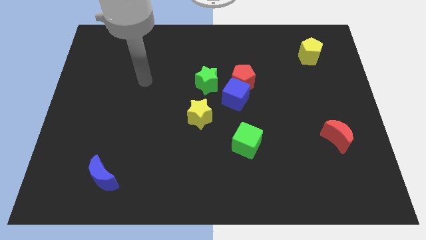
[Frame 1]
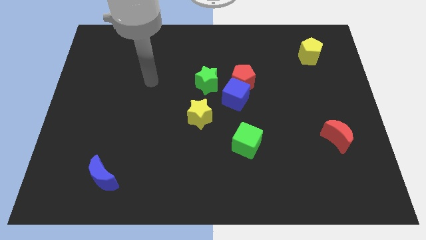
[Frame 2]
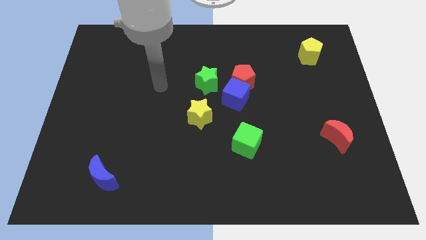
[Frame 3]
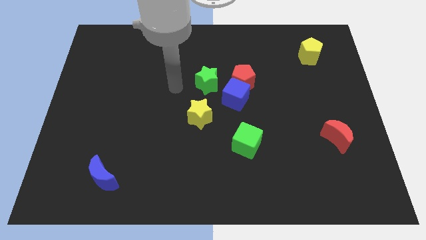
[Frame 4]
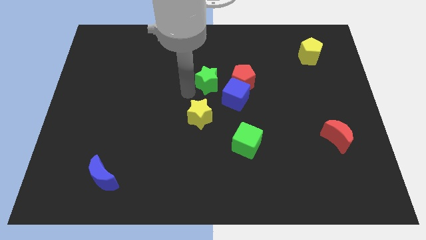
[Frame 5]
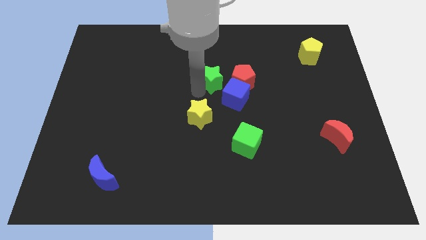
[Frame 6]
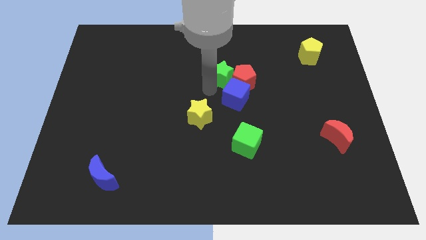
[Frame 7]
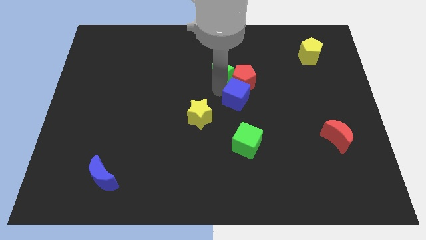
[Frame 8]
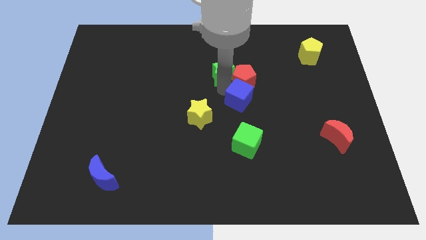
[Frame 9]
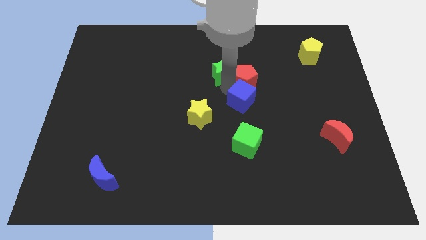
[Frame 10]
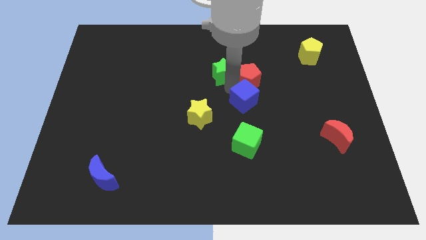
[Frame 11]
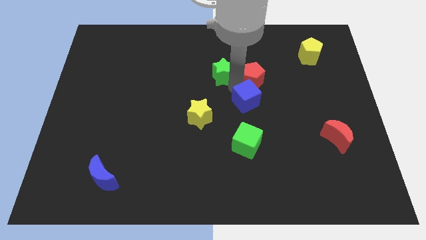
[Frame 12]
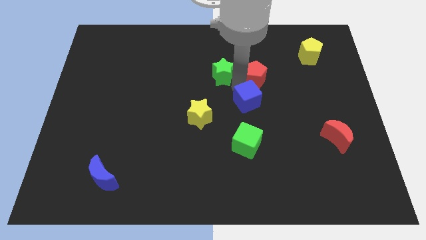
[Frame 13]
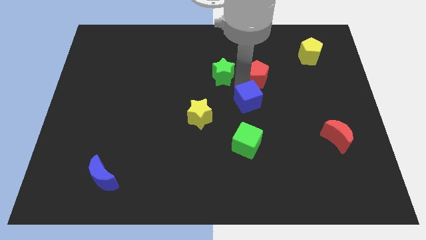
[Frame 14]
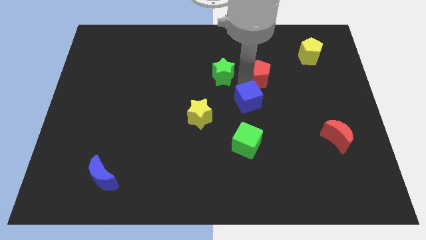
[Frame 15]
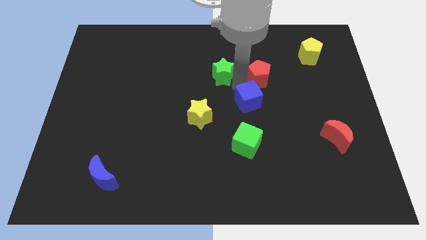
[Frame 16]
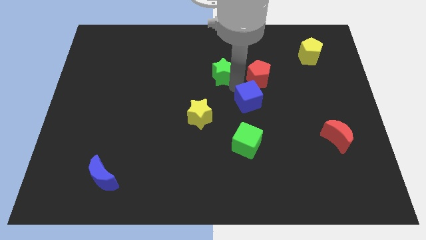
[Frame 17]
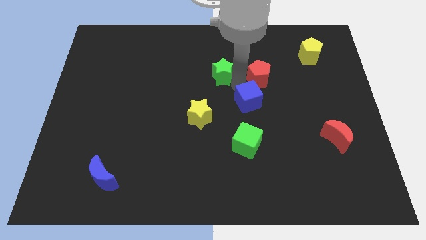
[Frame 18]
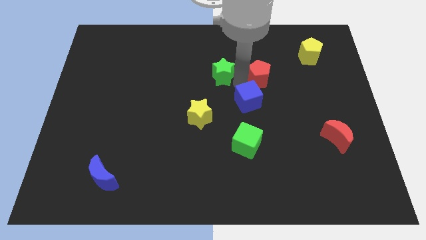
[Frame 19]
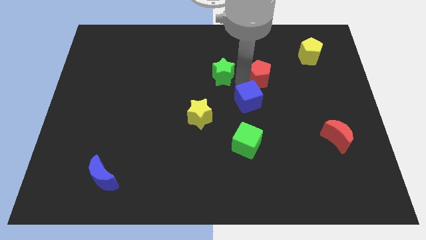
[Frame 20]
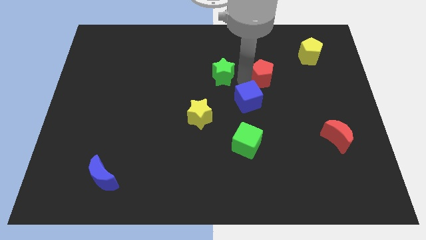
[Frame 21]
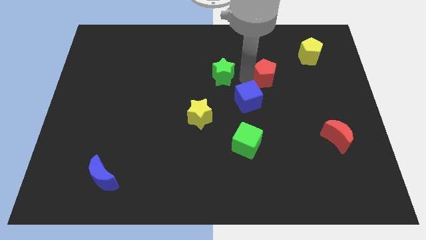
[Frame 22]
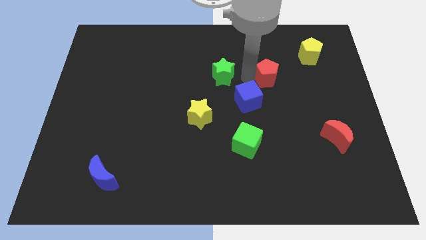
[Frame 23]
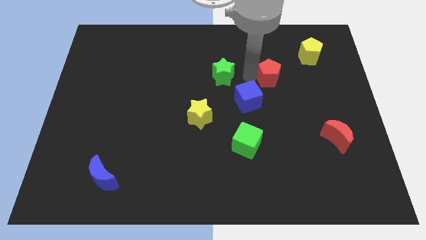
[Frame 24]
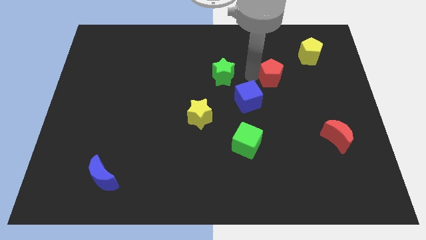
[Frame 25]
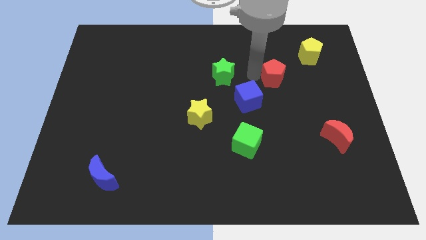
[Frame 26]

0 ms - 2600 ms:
separate the red pentagon from the blue cube and green star

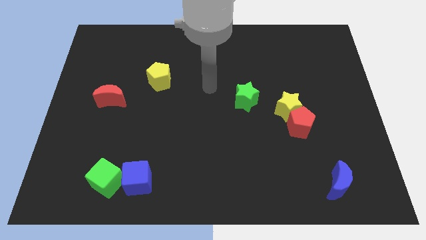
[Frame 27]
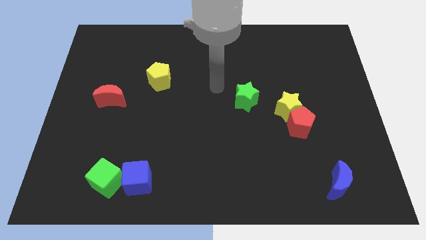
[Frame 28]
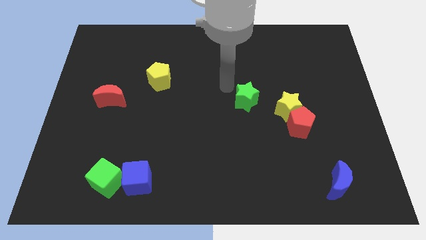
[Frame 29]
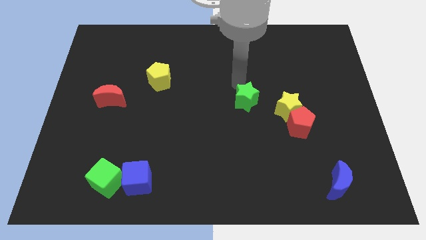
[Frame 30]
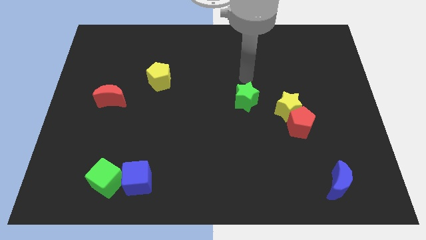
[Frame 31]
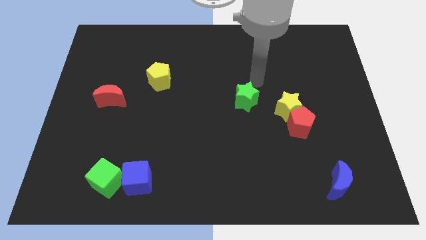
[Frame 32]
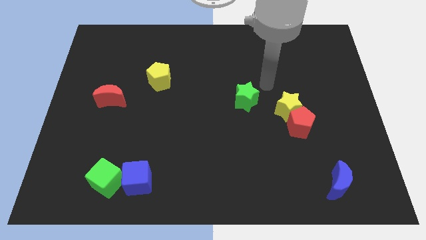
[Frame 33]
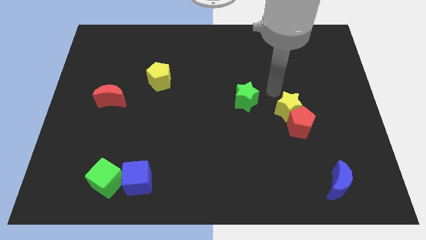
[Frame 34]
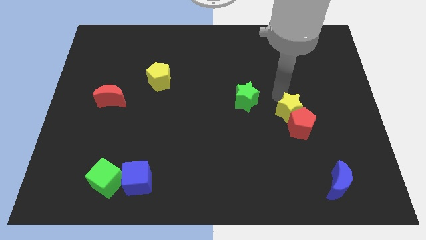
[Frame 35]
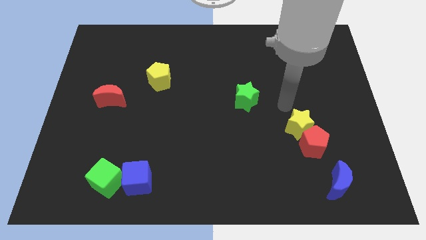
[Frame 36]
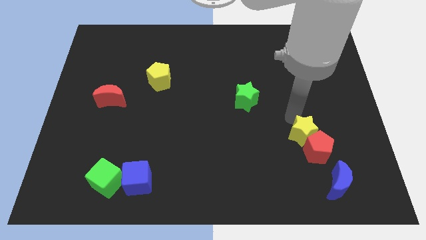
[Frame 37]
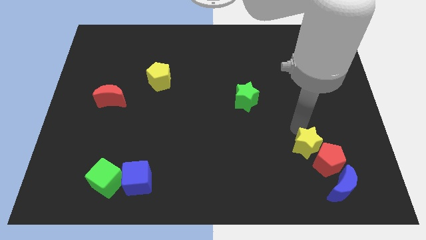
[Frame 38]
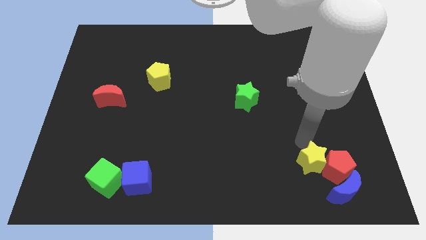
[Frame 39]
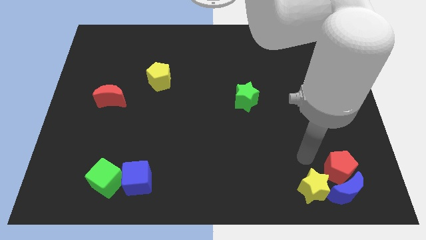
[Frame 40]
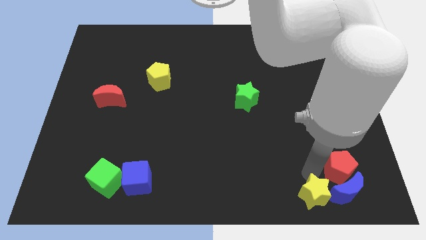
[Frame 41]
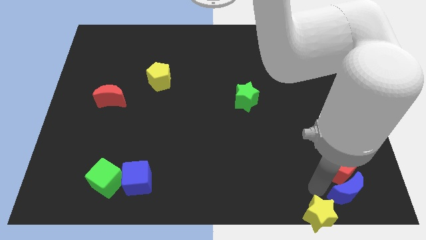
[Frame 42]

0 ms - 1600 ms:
separate the red pentagon from the yellow star

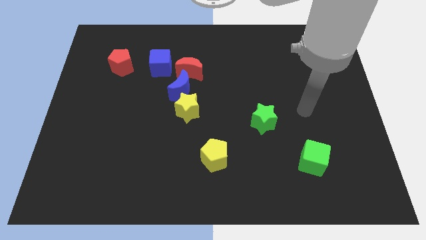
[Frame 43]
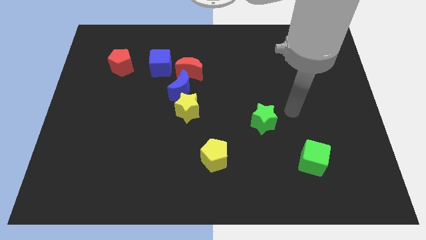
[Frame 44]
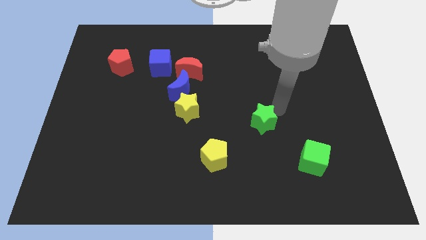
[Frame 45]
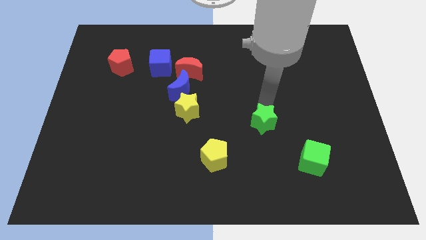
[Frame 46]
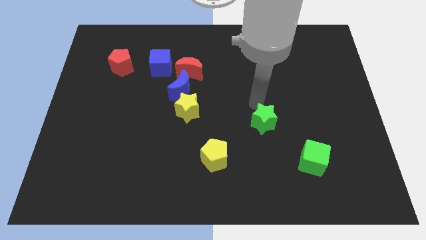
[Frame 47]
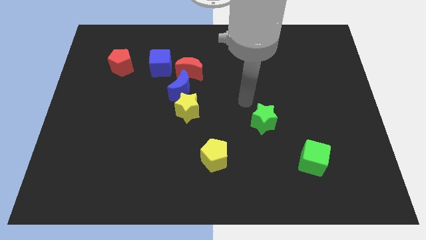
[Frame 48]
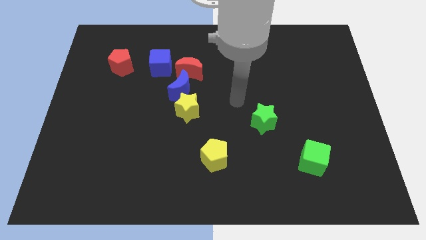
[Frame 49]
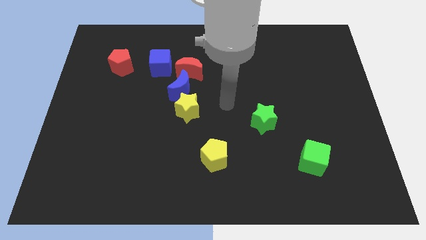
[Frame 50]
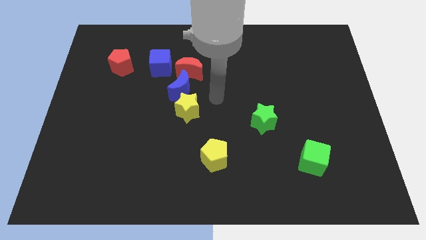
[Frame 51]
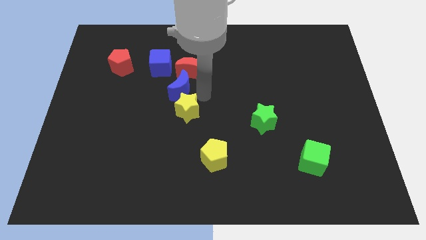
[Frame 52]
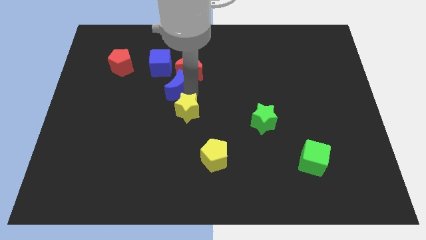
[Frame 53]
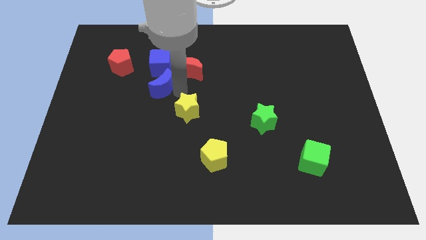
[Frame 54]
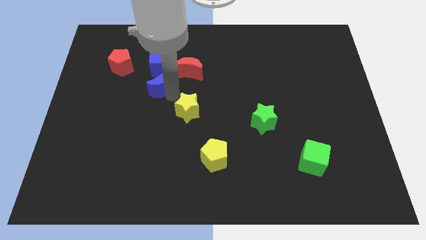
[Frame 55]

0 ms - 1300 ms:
move the yellow star away from the blue moon

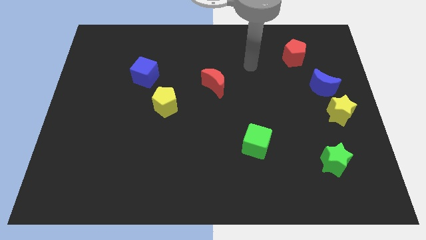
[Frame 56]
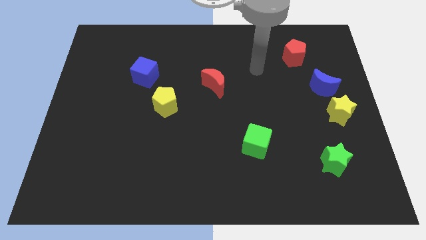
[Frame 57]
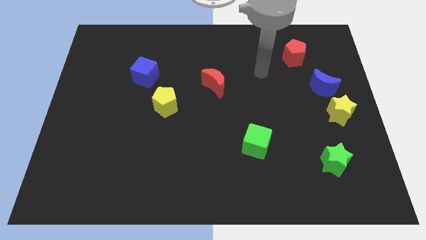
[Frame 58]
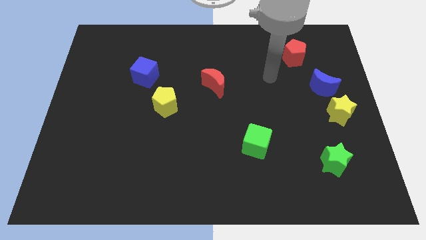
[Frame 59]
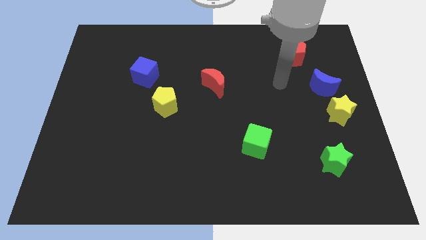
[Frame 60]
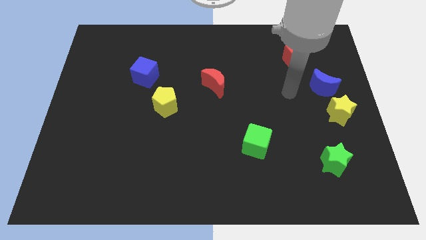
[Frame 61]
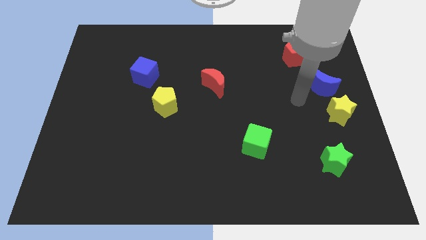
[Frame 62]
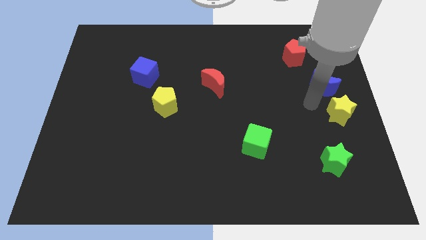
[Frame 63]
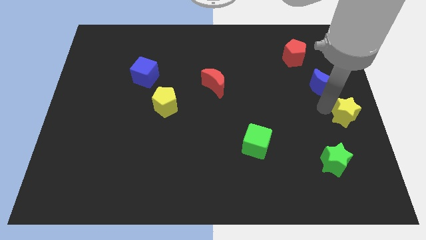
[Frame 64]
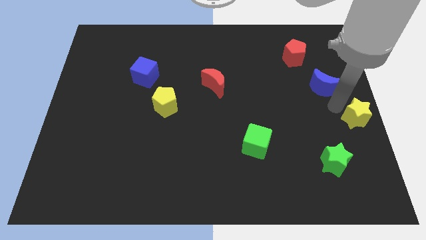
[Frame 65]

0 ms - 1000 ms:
move the blue moon away from the yellow star

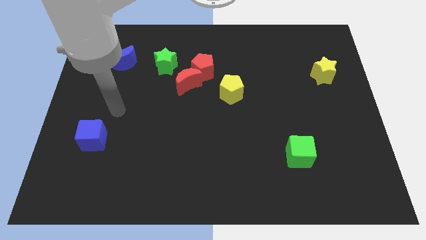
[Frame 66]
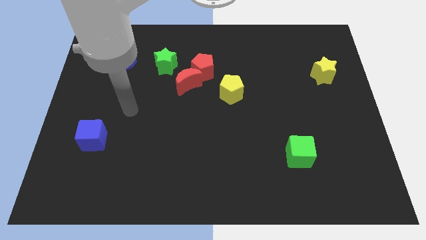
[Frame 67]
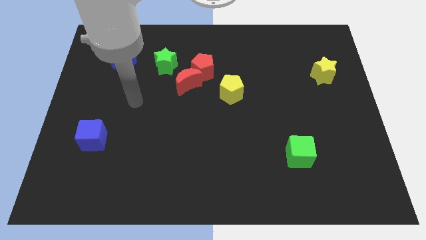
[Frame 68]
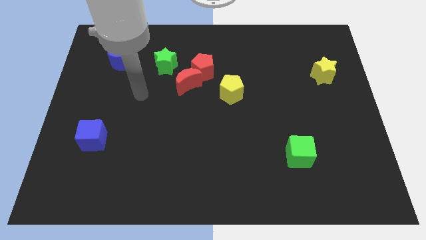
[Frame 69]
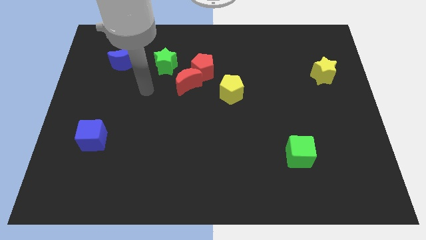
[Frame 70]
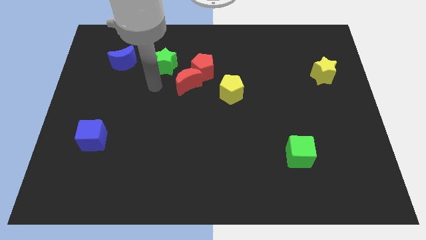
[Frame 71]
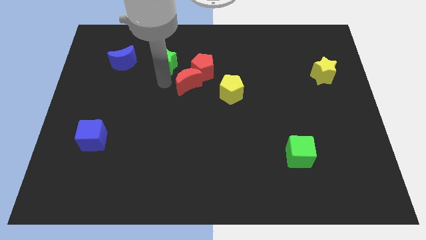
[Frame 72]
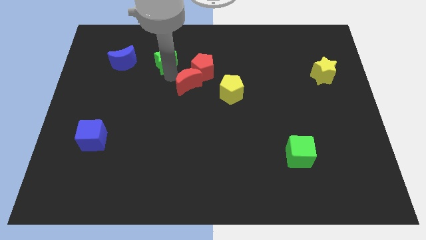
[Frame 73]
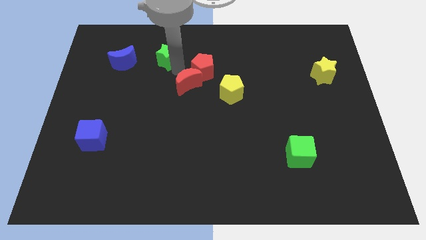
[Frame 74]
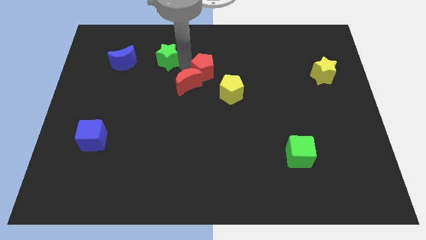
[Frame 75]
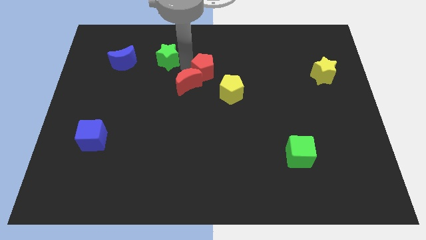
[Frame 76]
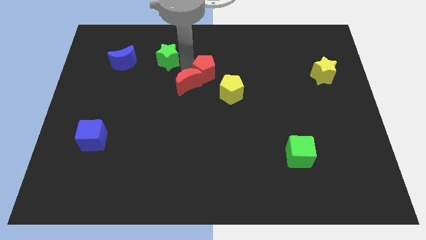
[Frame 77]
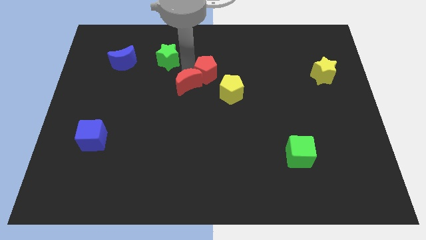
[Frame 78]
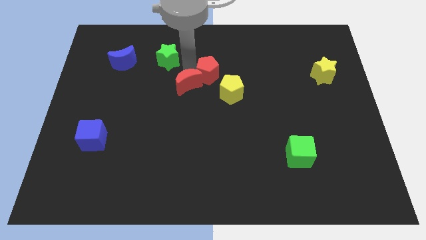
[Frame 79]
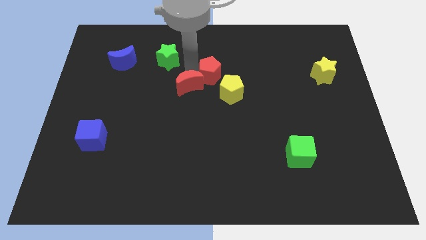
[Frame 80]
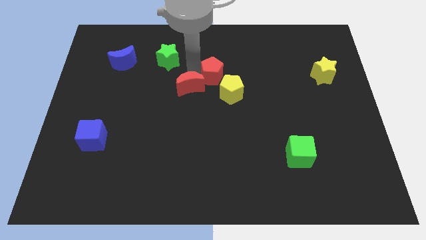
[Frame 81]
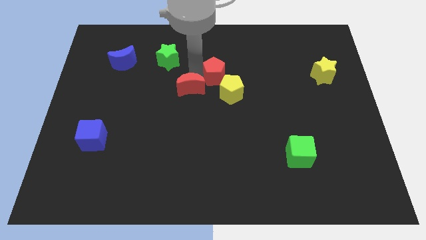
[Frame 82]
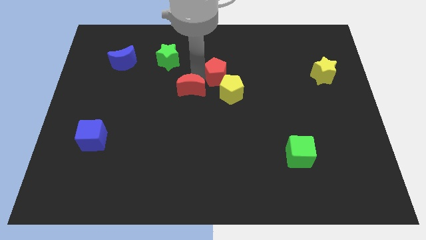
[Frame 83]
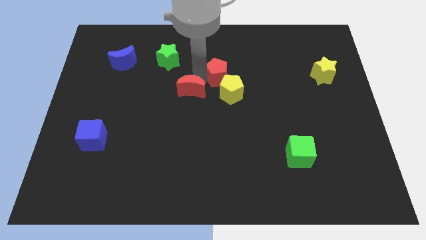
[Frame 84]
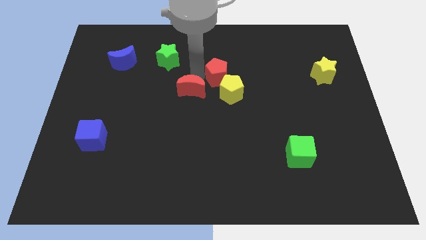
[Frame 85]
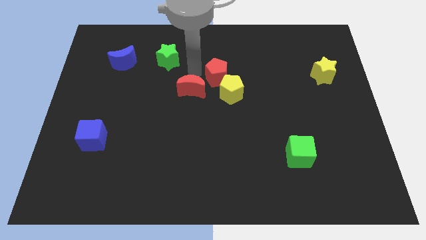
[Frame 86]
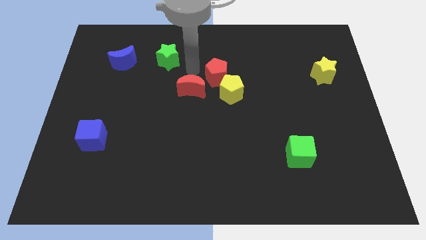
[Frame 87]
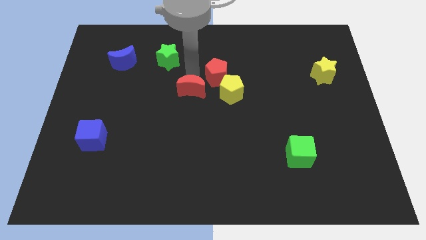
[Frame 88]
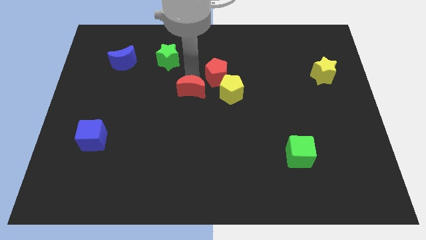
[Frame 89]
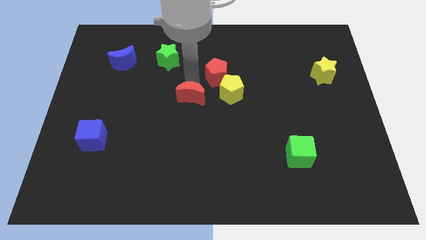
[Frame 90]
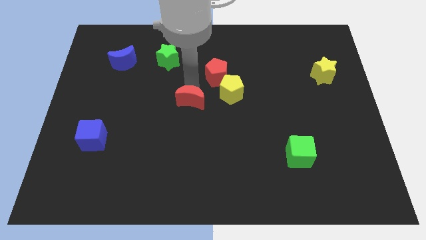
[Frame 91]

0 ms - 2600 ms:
separate the red moon from the red pentagon and green star

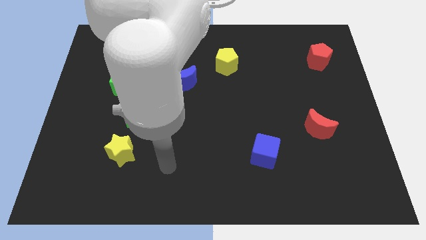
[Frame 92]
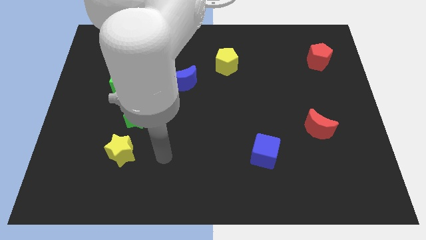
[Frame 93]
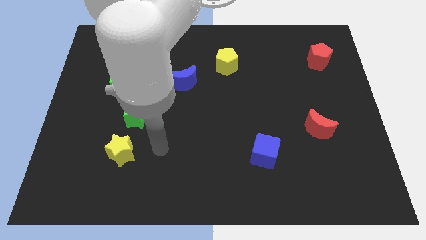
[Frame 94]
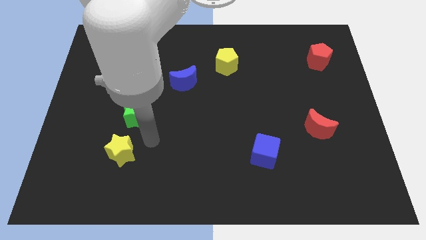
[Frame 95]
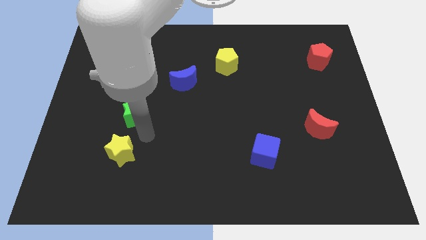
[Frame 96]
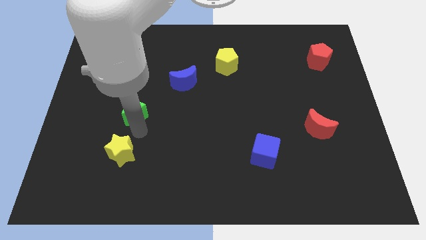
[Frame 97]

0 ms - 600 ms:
pull the yellow star apart from the green star
